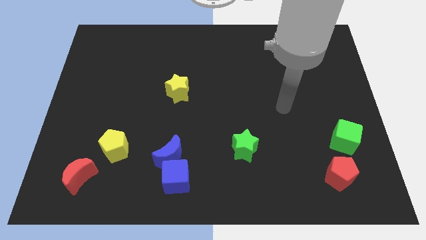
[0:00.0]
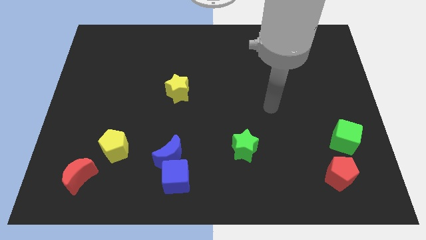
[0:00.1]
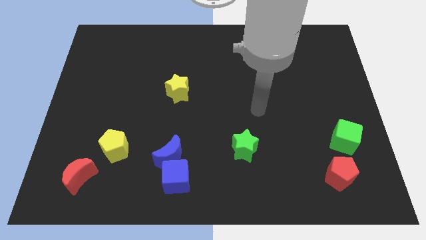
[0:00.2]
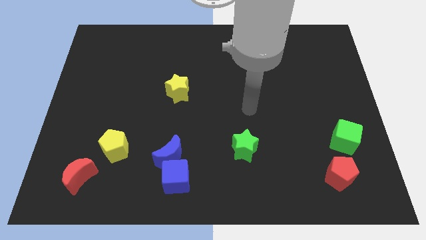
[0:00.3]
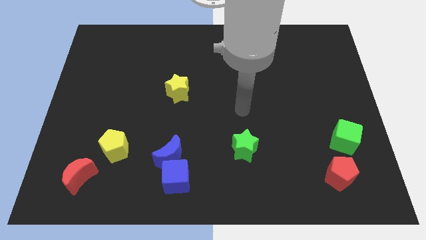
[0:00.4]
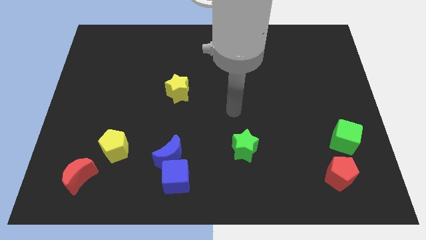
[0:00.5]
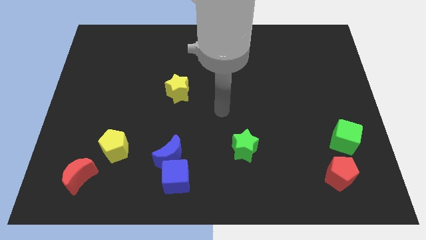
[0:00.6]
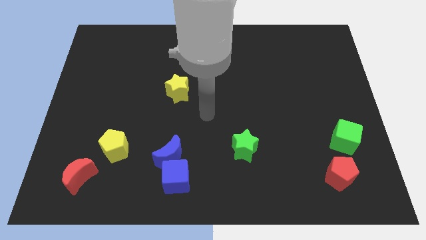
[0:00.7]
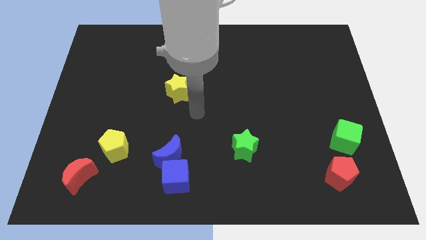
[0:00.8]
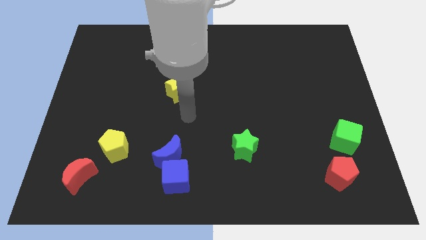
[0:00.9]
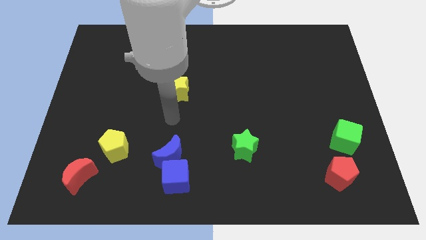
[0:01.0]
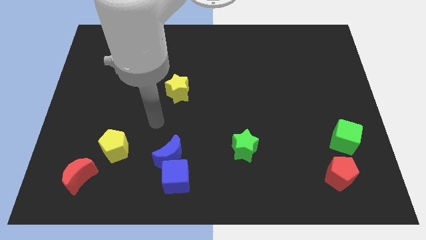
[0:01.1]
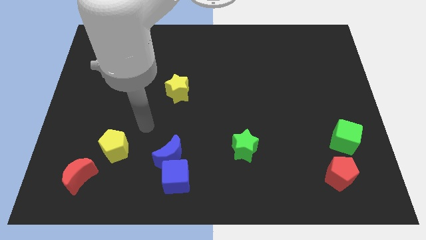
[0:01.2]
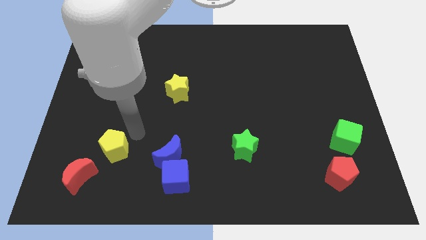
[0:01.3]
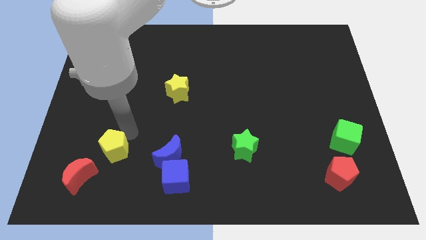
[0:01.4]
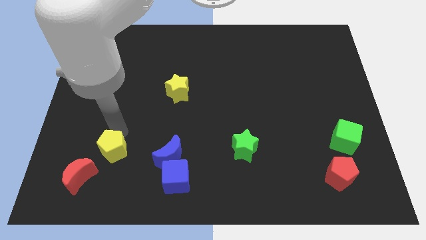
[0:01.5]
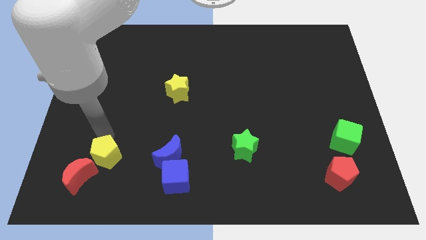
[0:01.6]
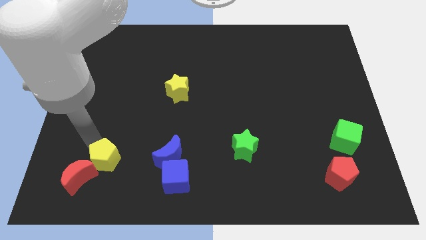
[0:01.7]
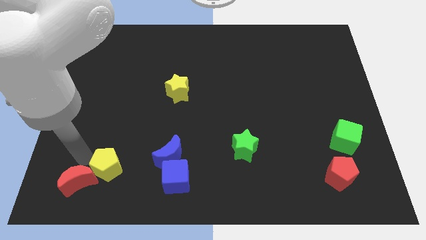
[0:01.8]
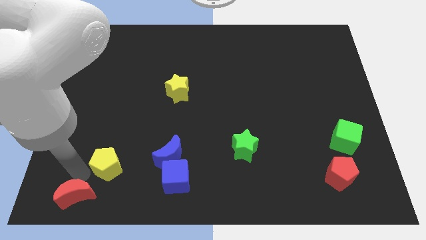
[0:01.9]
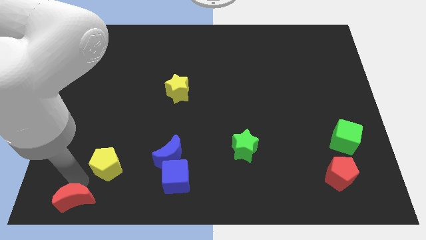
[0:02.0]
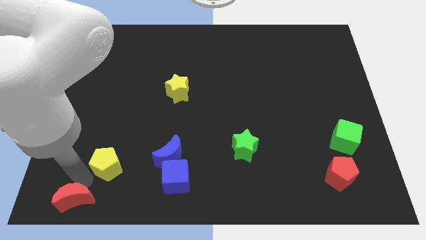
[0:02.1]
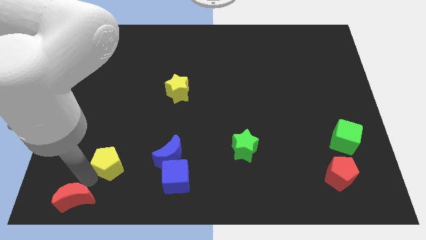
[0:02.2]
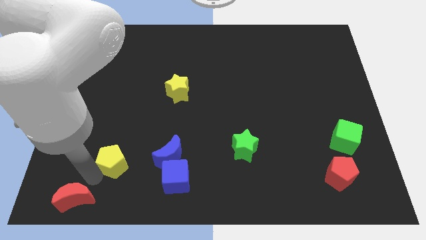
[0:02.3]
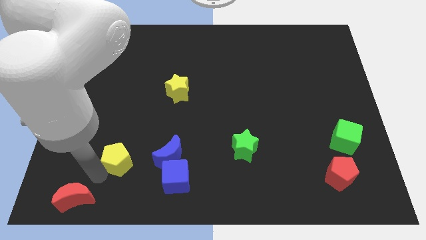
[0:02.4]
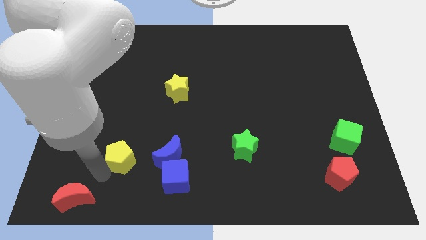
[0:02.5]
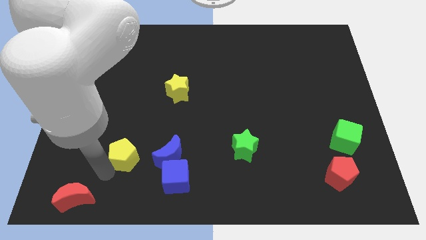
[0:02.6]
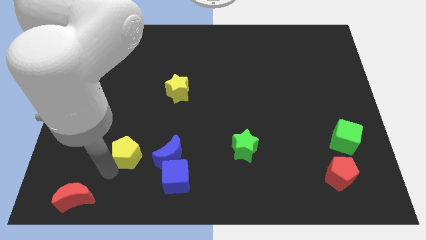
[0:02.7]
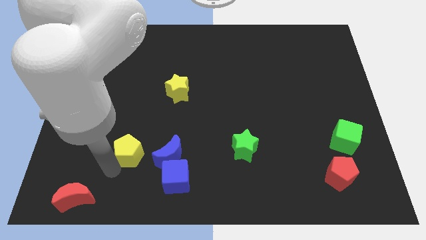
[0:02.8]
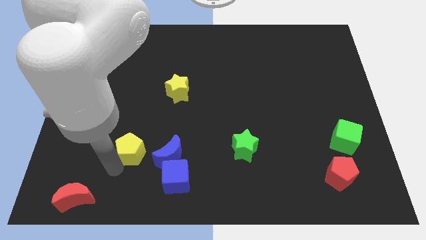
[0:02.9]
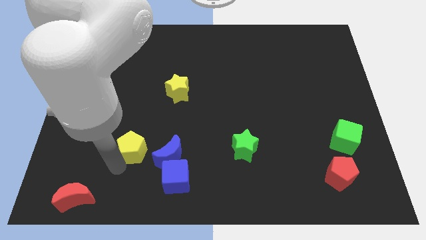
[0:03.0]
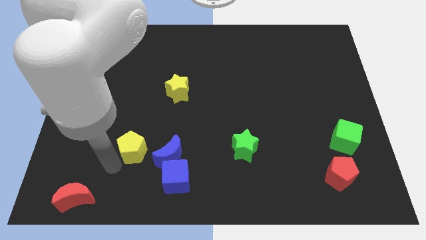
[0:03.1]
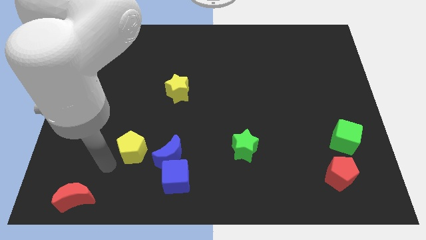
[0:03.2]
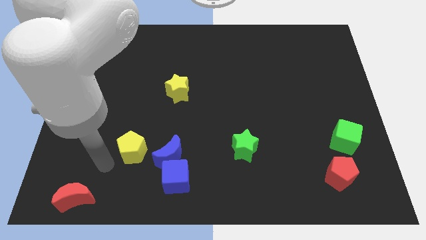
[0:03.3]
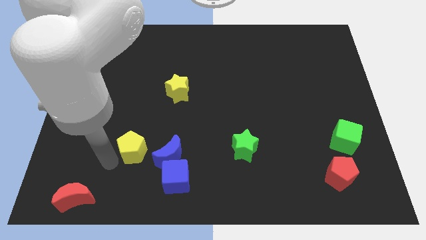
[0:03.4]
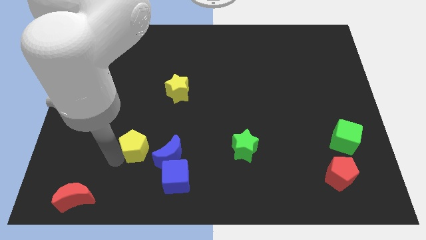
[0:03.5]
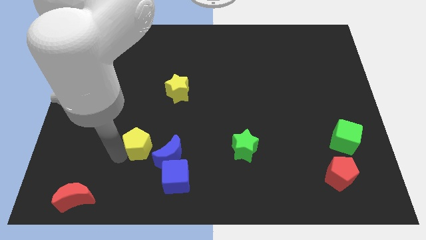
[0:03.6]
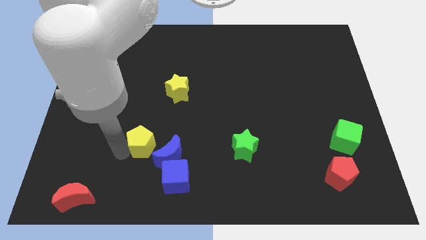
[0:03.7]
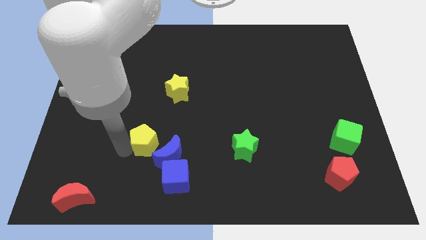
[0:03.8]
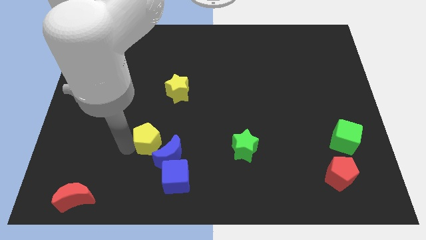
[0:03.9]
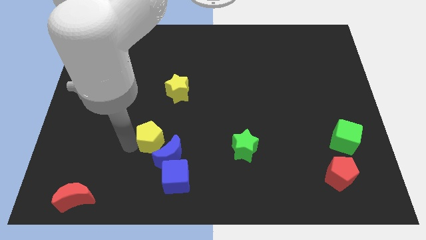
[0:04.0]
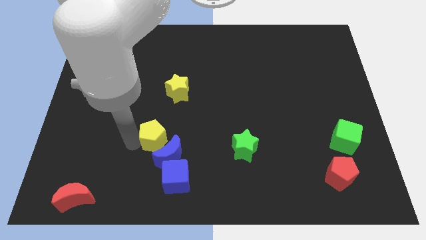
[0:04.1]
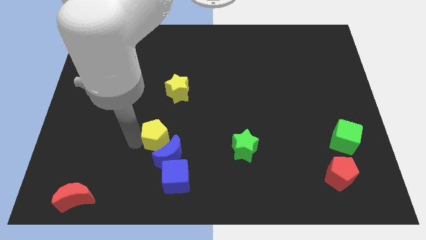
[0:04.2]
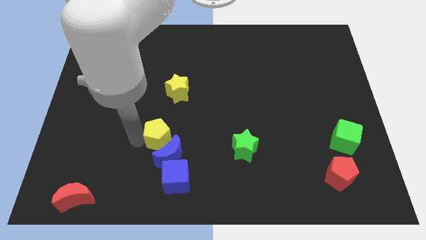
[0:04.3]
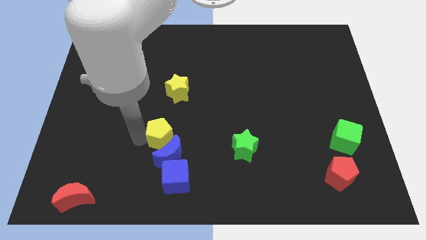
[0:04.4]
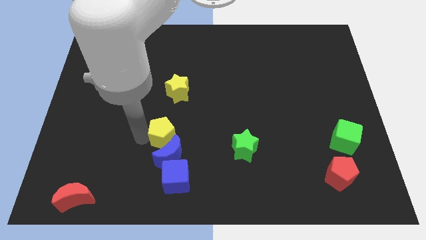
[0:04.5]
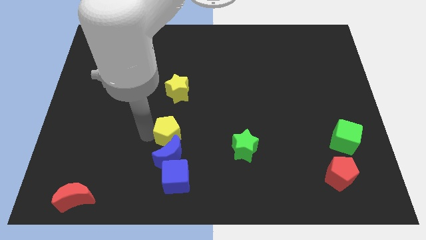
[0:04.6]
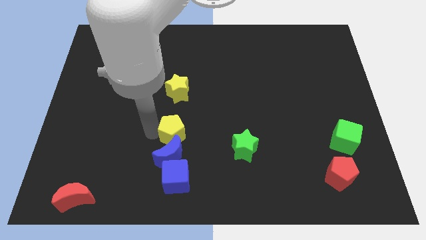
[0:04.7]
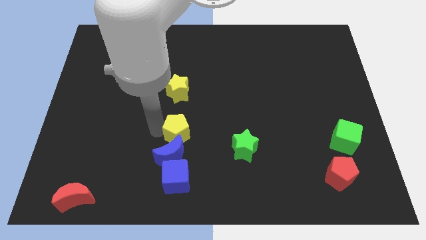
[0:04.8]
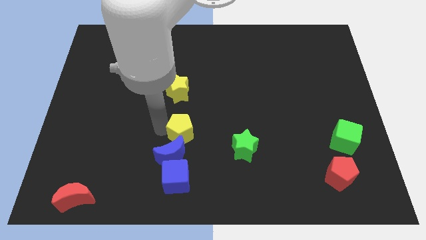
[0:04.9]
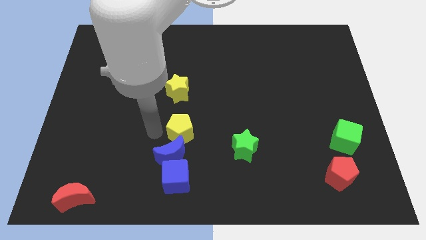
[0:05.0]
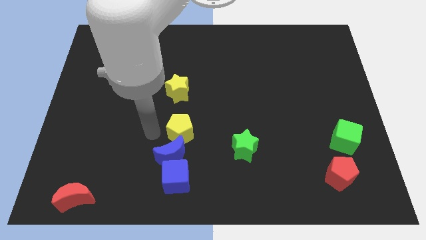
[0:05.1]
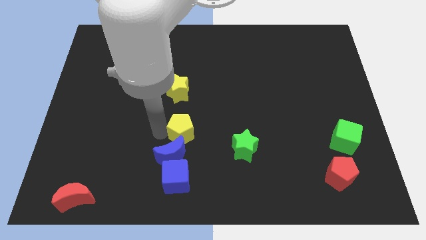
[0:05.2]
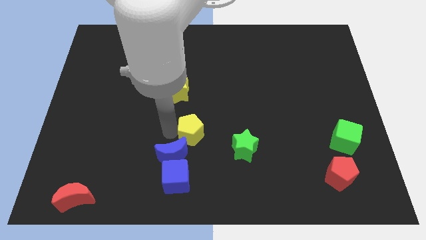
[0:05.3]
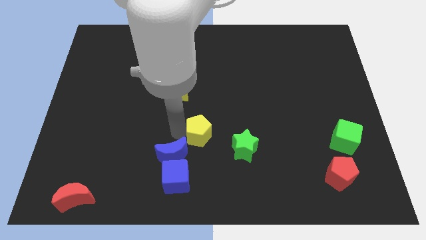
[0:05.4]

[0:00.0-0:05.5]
slide the yellow pentagon diagonally up and to the left of the green star

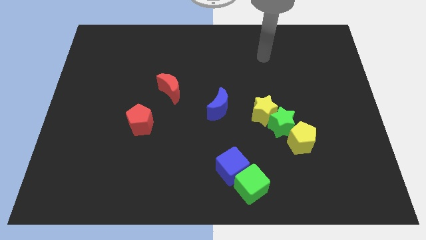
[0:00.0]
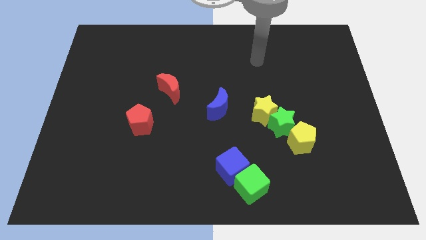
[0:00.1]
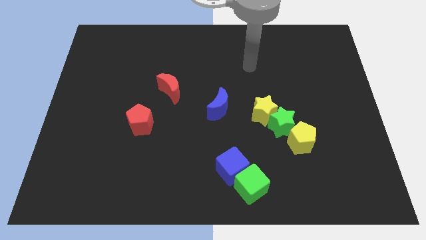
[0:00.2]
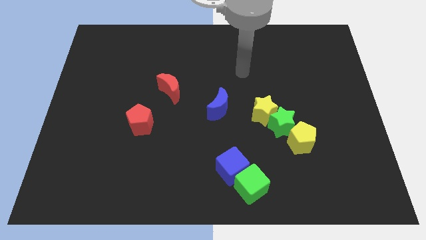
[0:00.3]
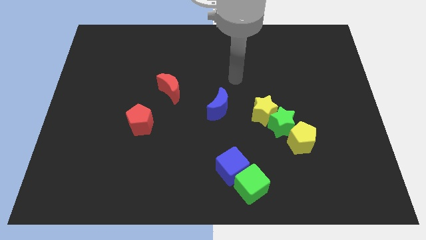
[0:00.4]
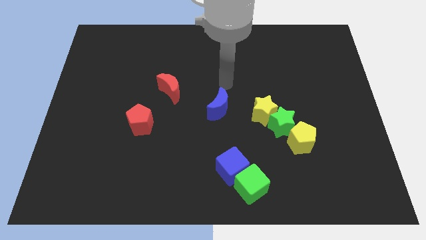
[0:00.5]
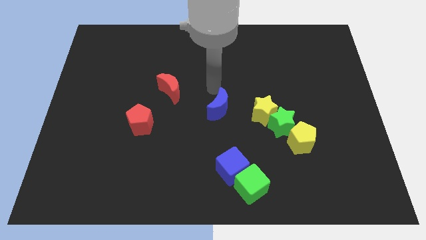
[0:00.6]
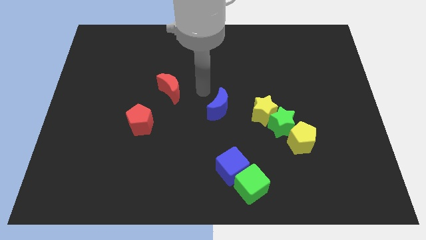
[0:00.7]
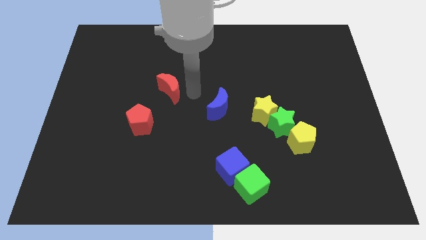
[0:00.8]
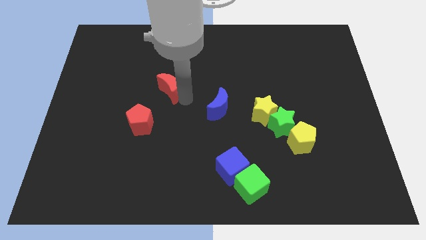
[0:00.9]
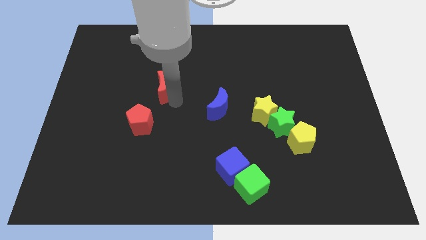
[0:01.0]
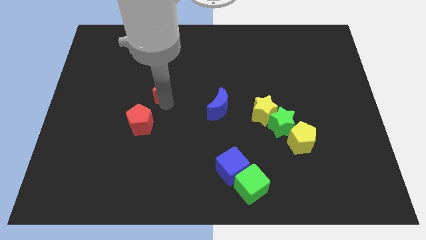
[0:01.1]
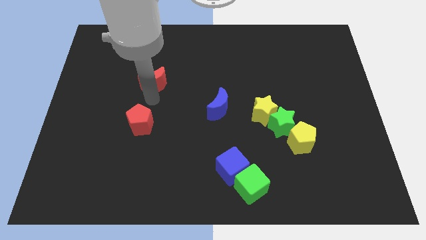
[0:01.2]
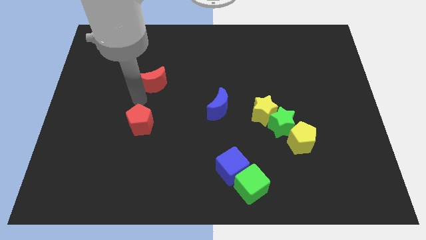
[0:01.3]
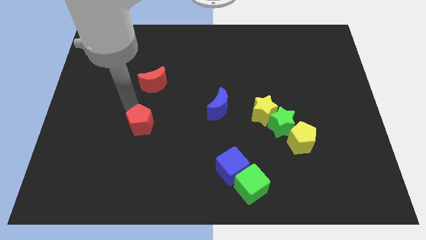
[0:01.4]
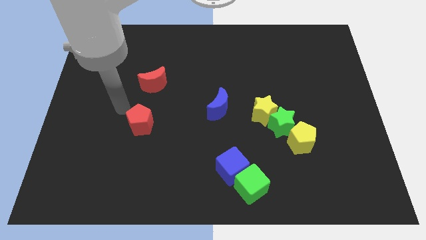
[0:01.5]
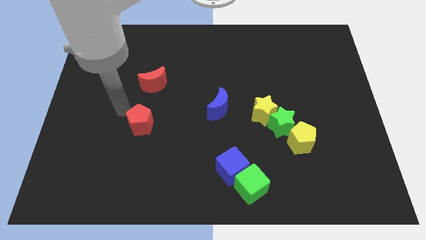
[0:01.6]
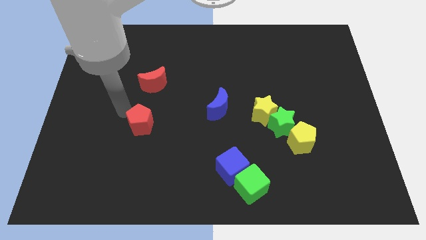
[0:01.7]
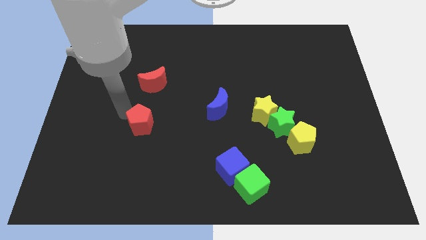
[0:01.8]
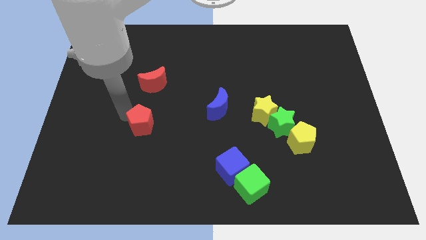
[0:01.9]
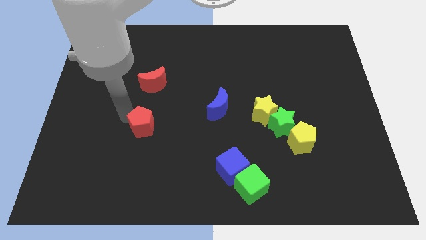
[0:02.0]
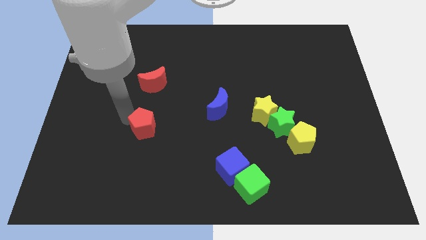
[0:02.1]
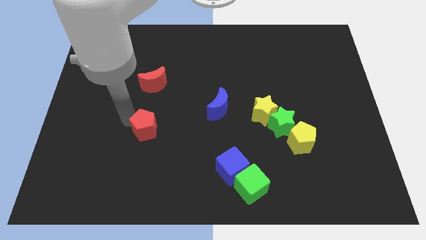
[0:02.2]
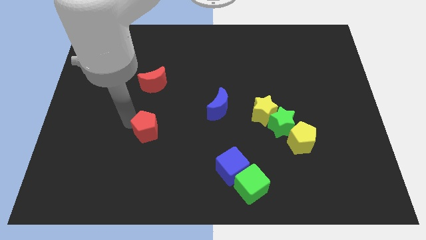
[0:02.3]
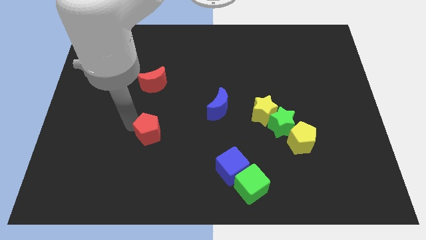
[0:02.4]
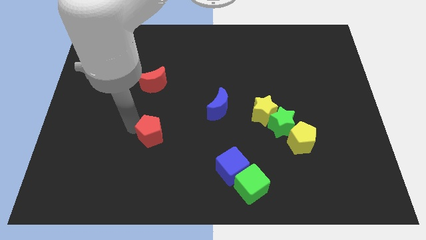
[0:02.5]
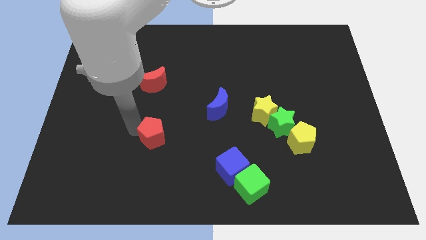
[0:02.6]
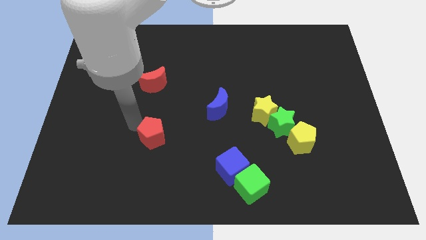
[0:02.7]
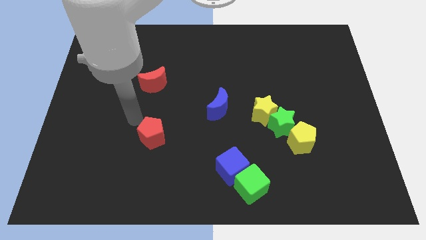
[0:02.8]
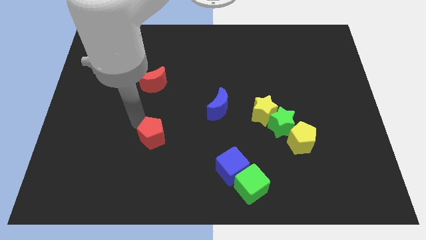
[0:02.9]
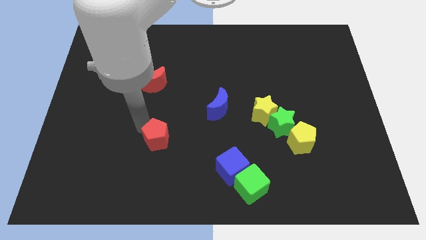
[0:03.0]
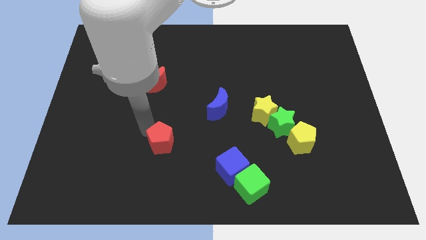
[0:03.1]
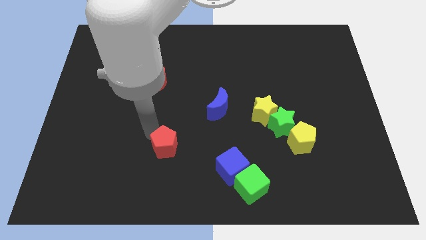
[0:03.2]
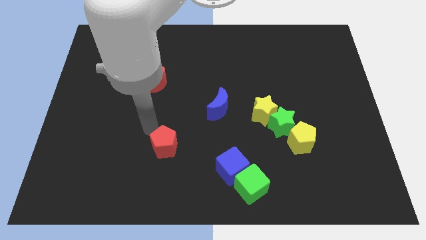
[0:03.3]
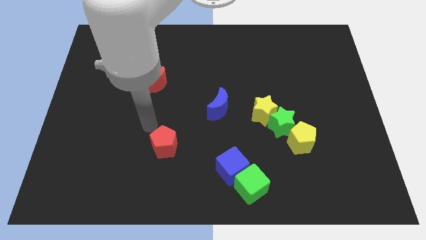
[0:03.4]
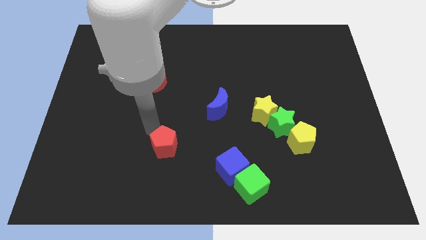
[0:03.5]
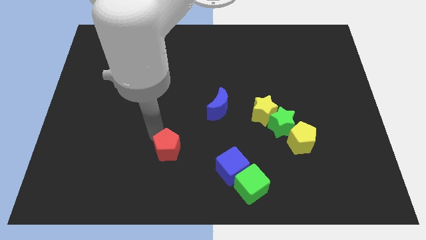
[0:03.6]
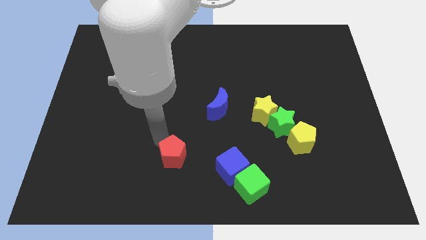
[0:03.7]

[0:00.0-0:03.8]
slide the red pentagon to the left of the blue cube
